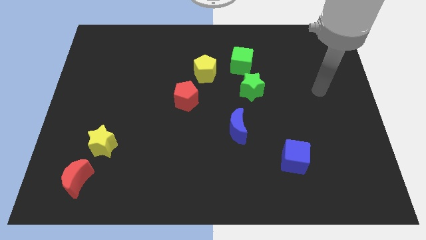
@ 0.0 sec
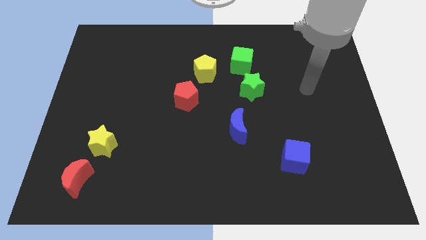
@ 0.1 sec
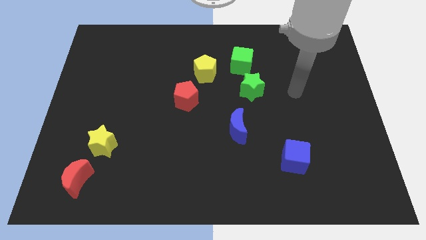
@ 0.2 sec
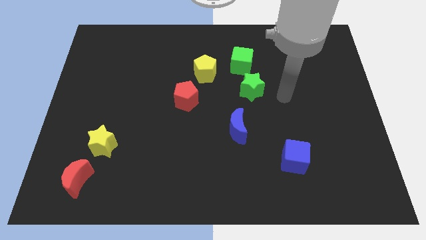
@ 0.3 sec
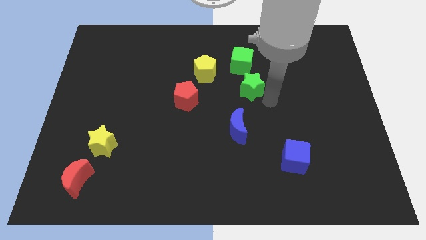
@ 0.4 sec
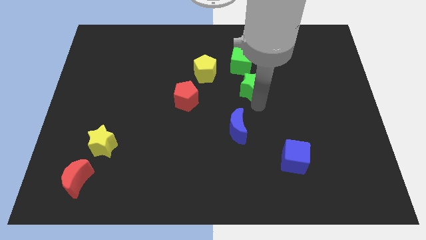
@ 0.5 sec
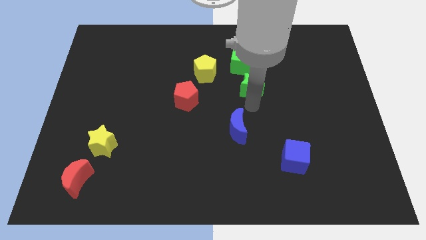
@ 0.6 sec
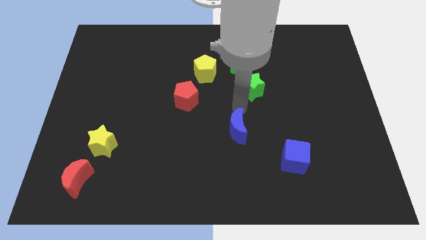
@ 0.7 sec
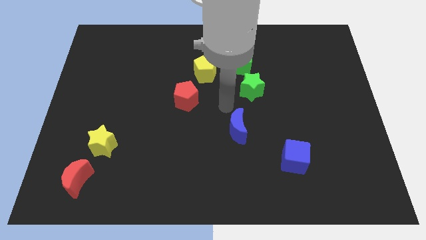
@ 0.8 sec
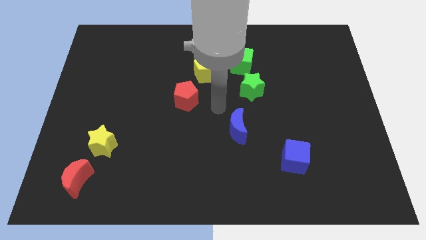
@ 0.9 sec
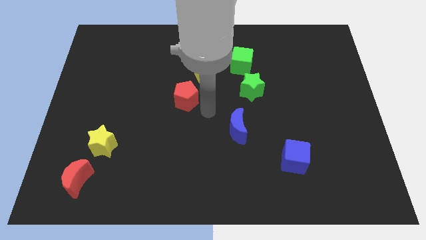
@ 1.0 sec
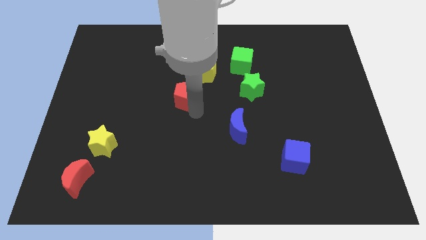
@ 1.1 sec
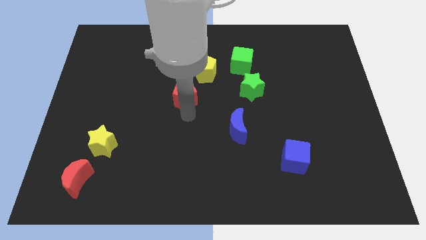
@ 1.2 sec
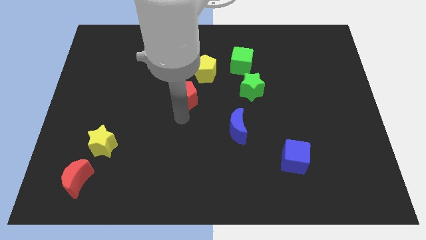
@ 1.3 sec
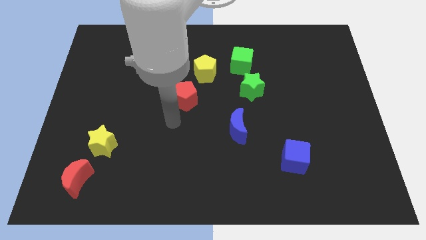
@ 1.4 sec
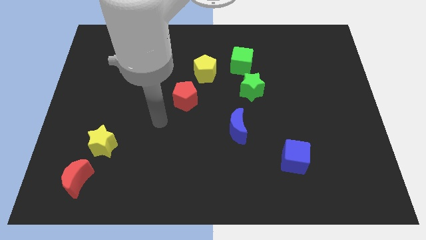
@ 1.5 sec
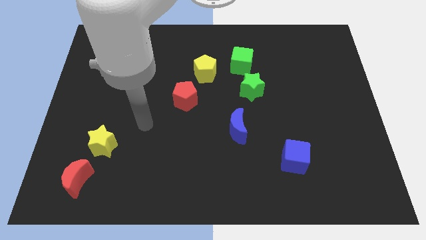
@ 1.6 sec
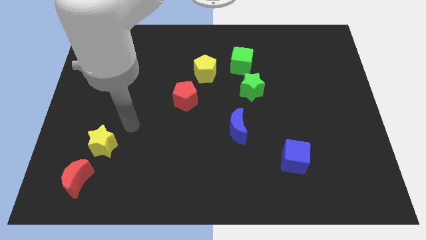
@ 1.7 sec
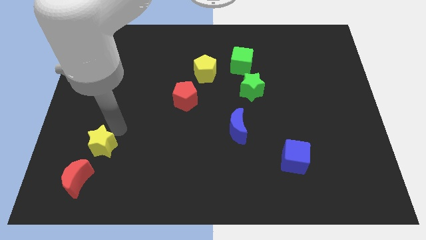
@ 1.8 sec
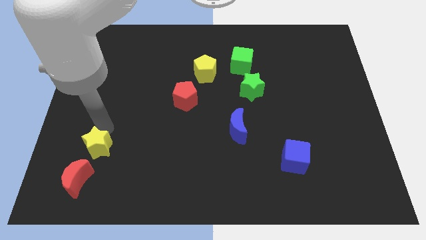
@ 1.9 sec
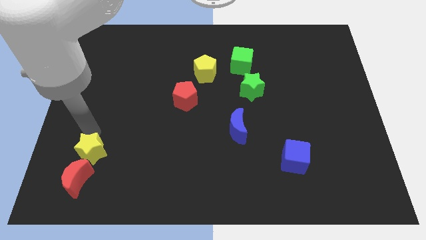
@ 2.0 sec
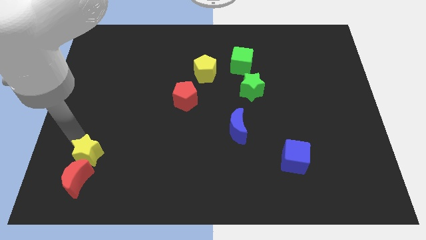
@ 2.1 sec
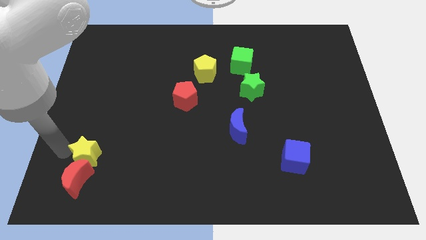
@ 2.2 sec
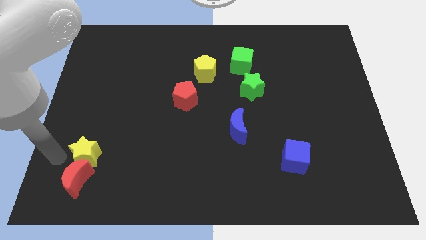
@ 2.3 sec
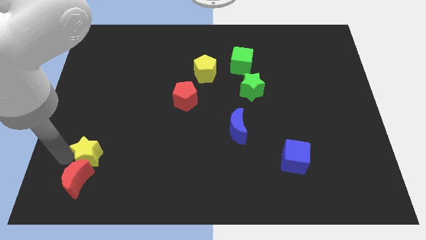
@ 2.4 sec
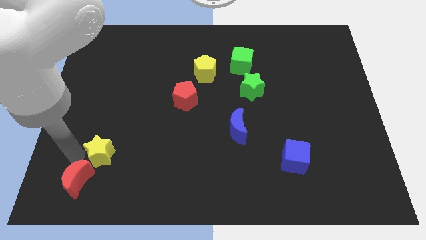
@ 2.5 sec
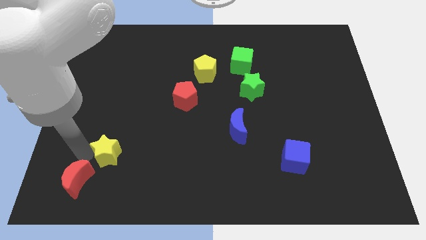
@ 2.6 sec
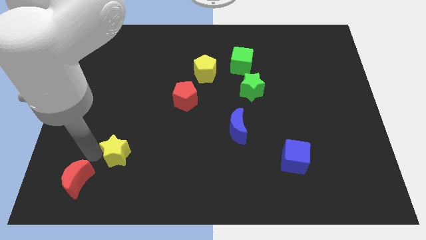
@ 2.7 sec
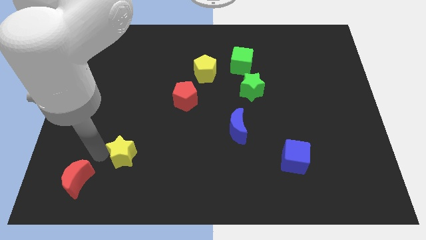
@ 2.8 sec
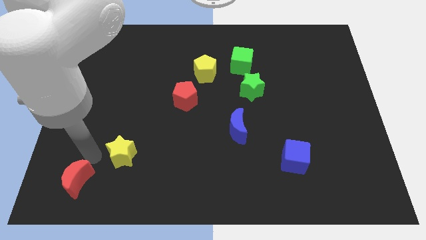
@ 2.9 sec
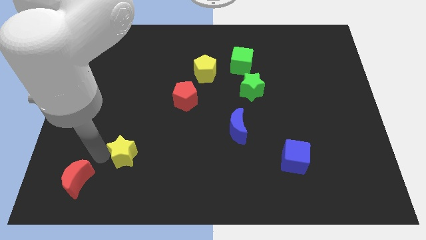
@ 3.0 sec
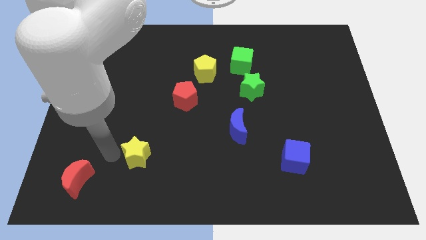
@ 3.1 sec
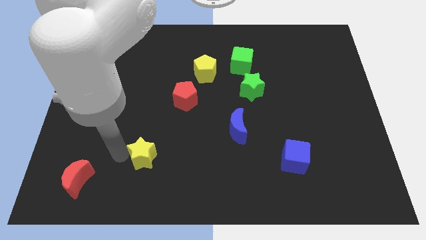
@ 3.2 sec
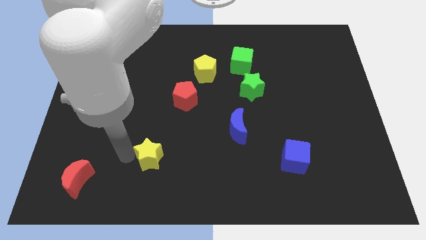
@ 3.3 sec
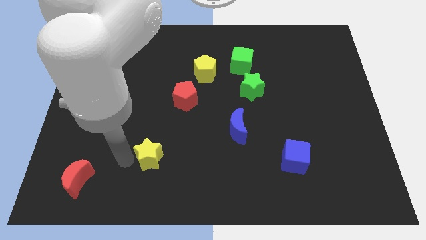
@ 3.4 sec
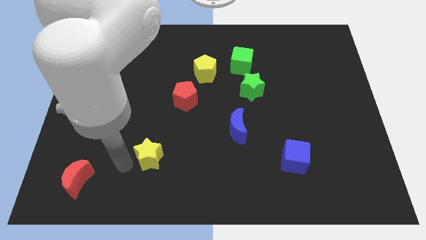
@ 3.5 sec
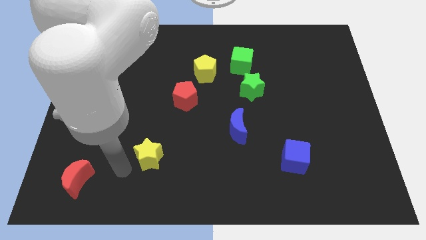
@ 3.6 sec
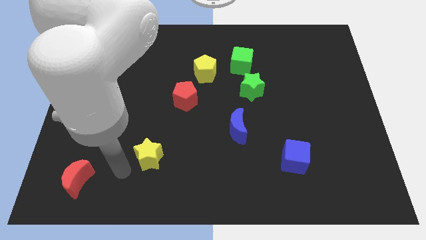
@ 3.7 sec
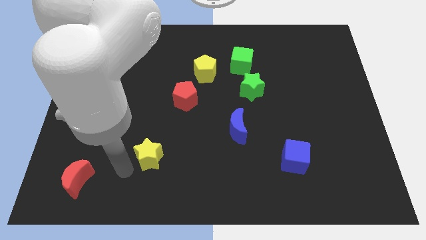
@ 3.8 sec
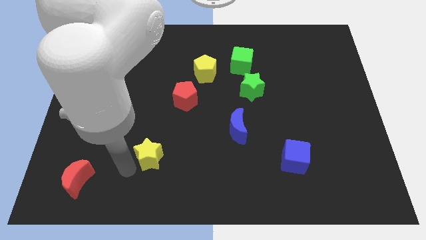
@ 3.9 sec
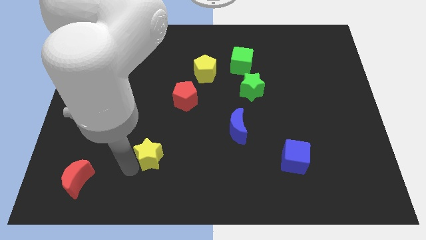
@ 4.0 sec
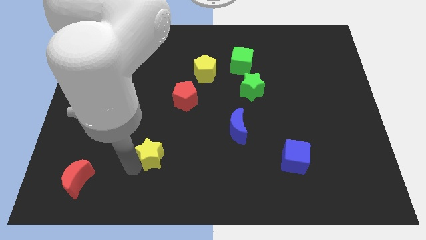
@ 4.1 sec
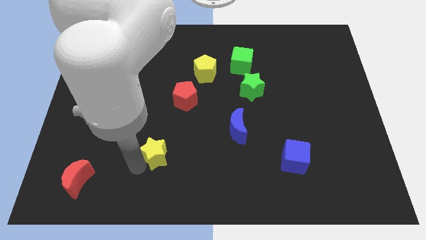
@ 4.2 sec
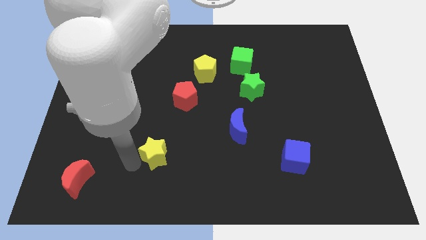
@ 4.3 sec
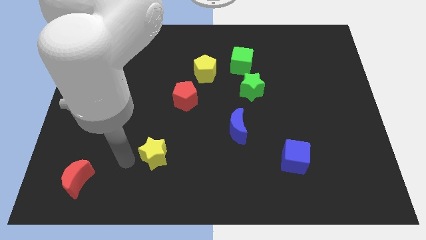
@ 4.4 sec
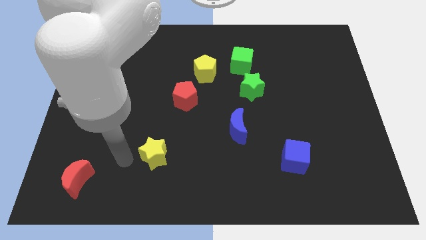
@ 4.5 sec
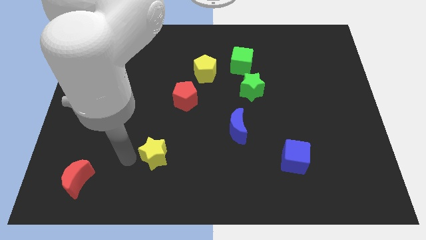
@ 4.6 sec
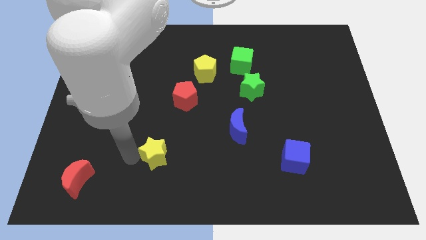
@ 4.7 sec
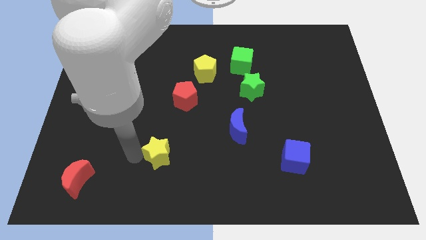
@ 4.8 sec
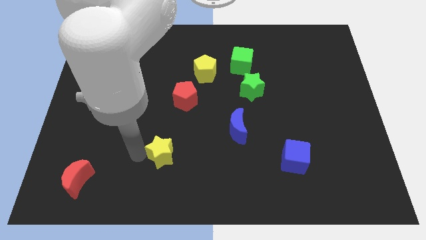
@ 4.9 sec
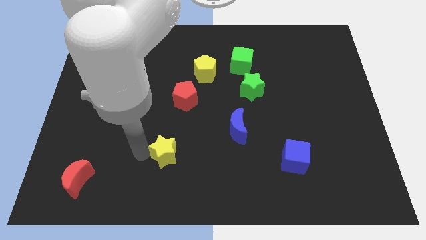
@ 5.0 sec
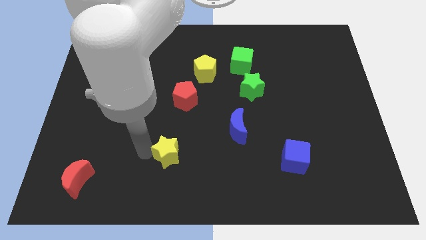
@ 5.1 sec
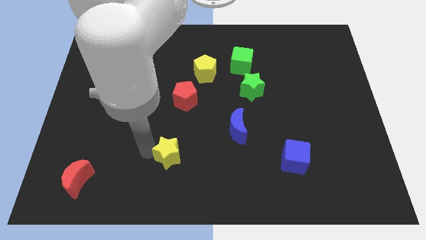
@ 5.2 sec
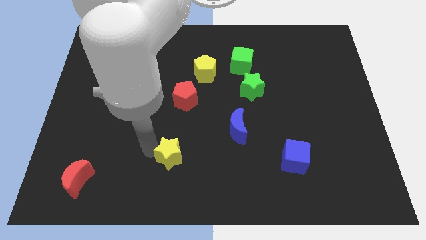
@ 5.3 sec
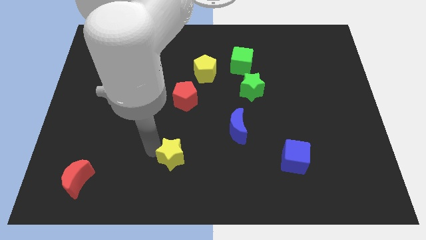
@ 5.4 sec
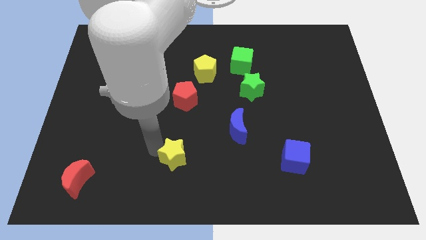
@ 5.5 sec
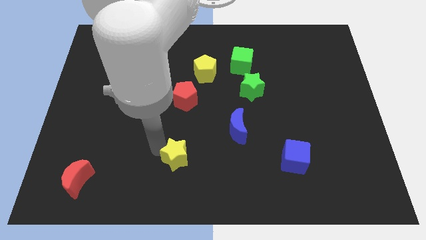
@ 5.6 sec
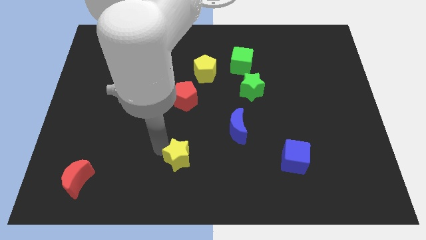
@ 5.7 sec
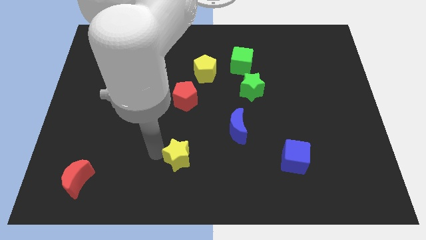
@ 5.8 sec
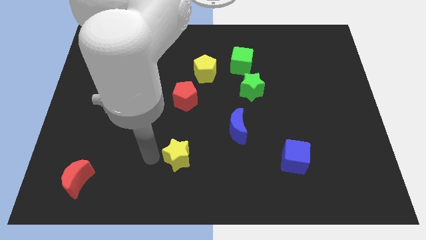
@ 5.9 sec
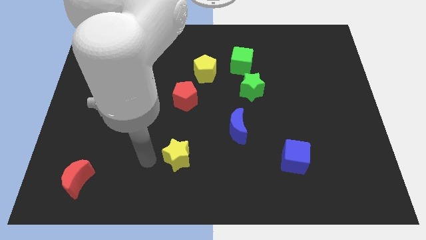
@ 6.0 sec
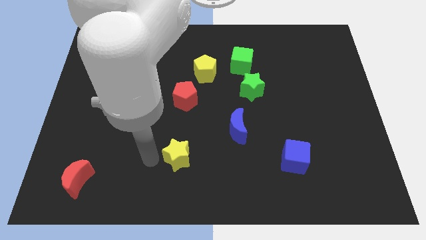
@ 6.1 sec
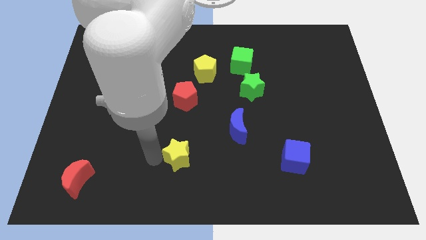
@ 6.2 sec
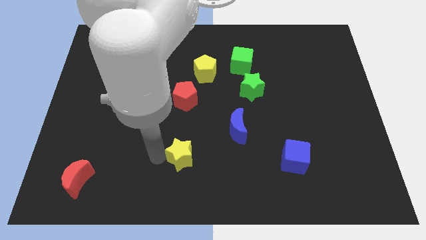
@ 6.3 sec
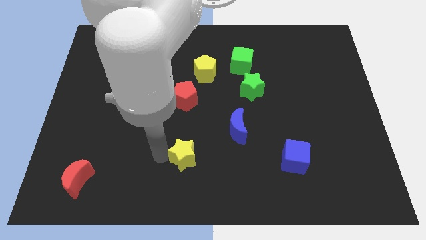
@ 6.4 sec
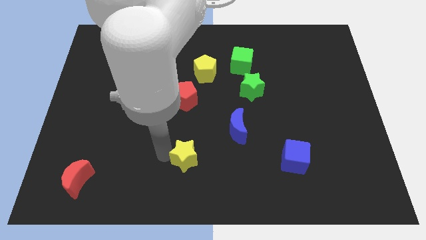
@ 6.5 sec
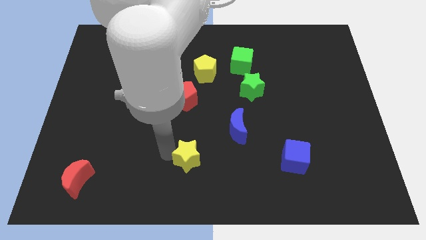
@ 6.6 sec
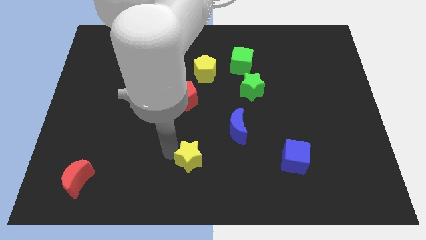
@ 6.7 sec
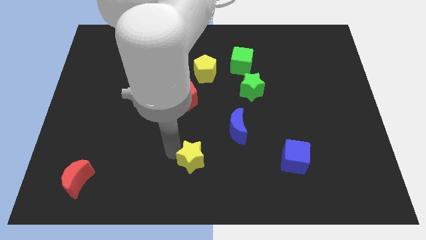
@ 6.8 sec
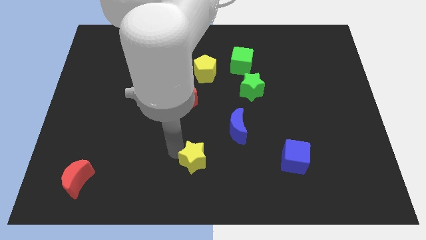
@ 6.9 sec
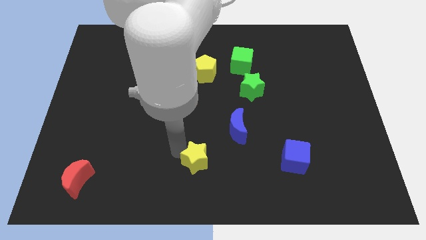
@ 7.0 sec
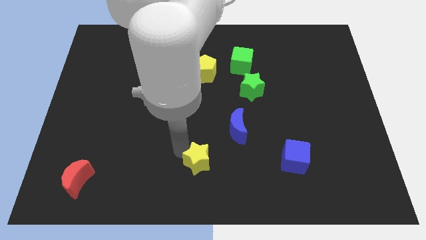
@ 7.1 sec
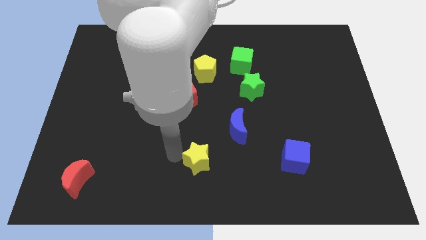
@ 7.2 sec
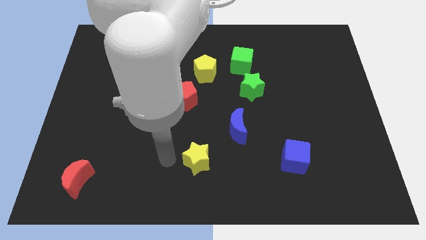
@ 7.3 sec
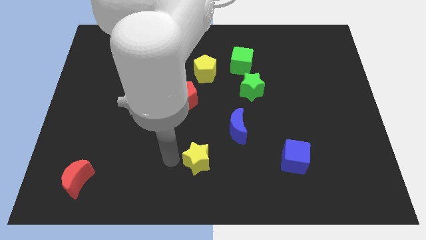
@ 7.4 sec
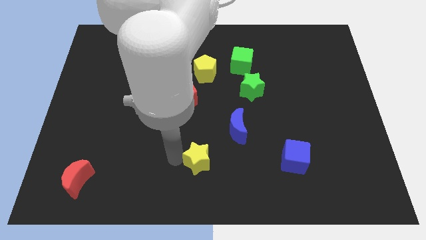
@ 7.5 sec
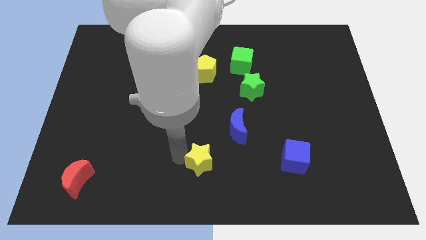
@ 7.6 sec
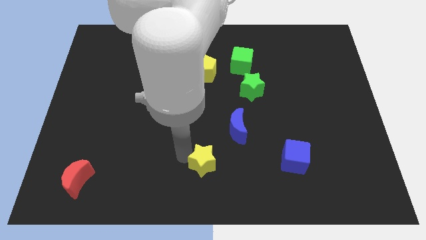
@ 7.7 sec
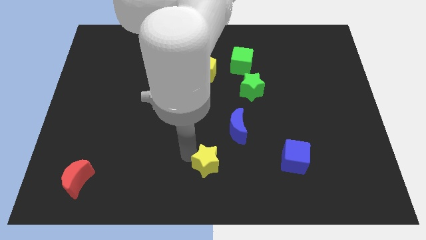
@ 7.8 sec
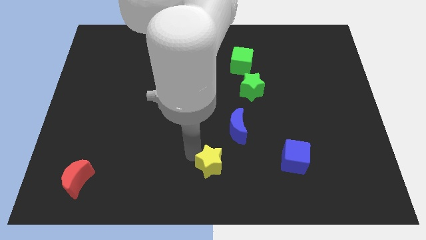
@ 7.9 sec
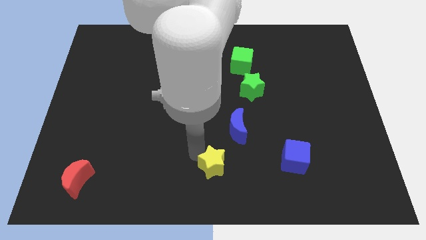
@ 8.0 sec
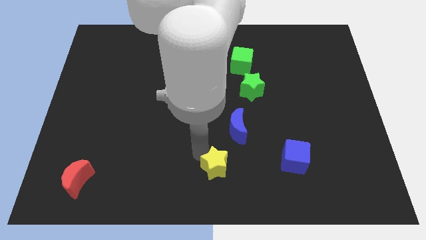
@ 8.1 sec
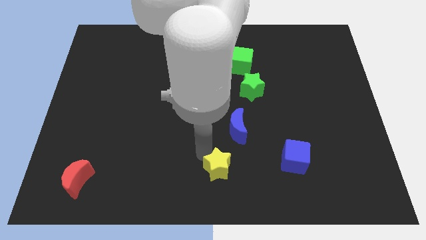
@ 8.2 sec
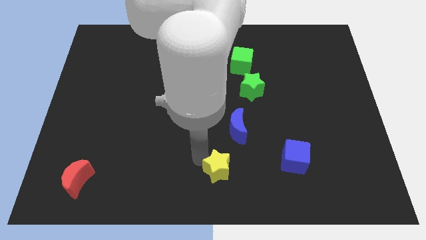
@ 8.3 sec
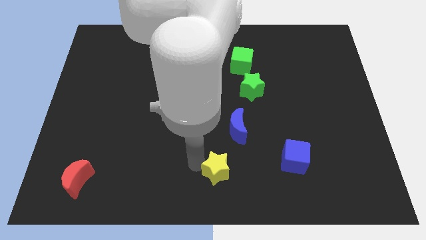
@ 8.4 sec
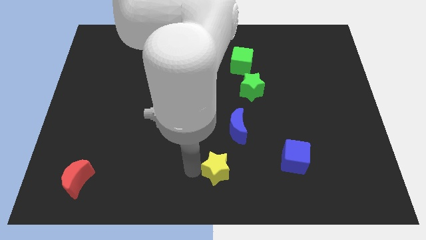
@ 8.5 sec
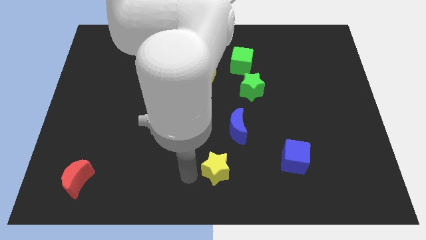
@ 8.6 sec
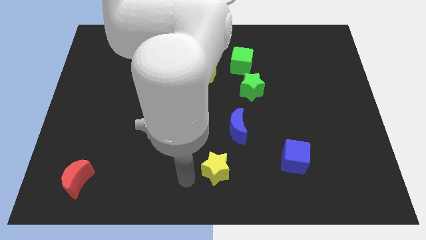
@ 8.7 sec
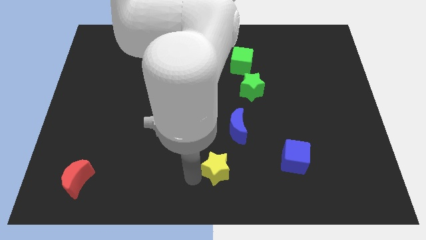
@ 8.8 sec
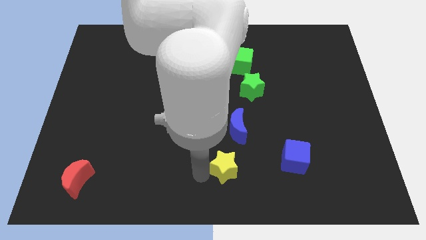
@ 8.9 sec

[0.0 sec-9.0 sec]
put the yellow star to the left side of the blue cube
